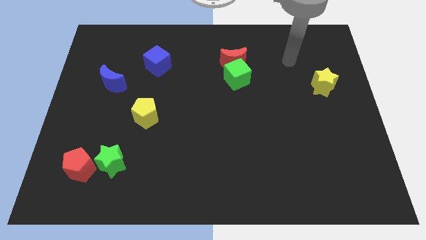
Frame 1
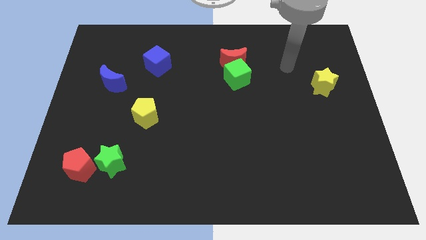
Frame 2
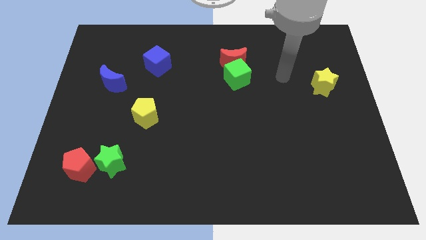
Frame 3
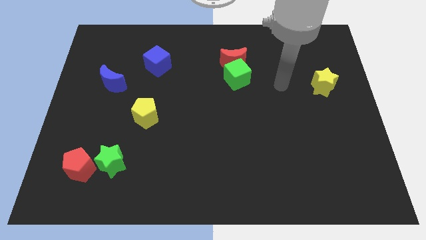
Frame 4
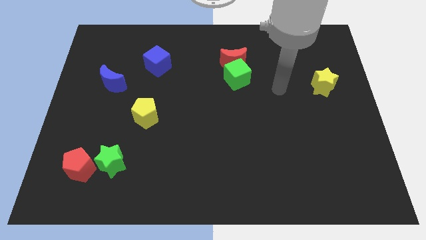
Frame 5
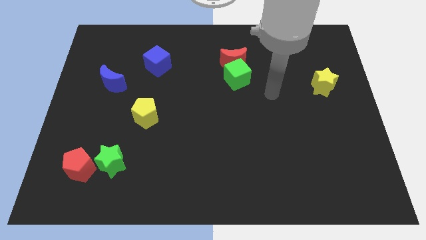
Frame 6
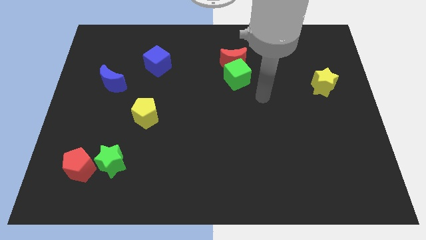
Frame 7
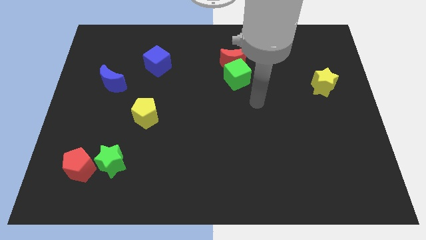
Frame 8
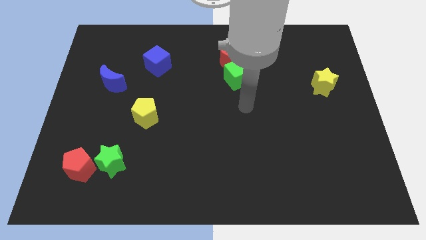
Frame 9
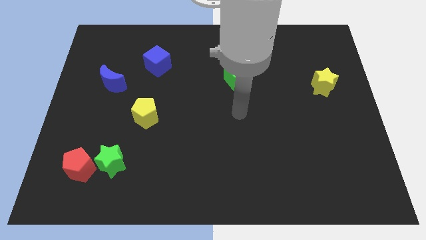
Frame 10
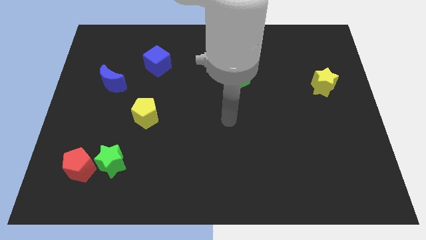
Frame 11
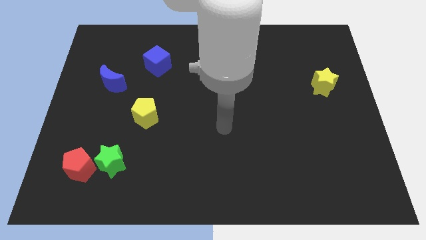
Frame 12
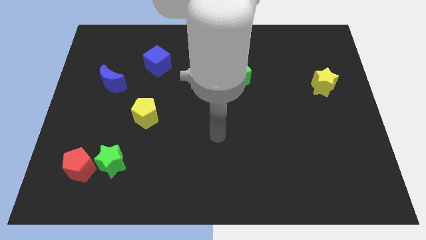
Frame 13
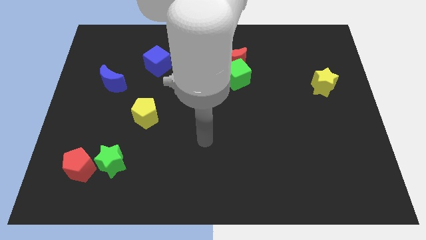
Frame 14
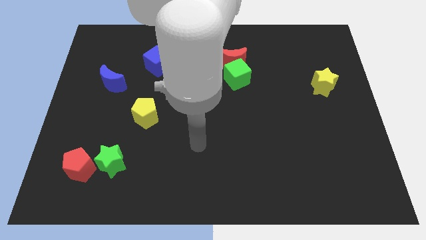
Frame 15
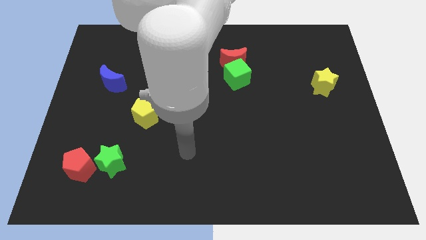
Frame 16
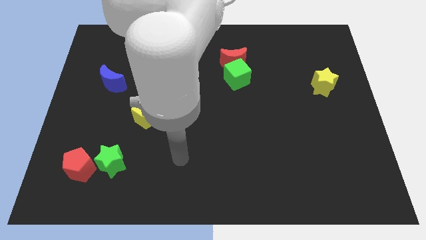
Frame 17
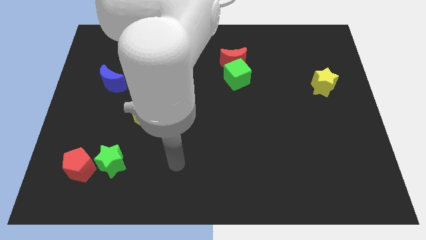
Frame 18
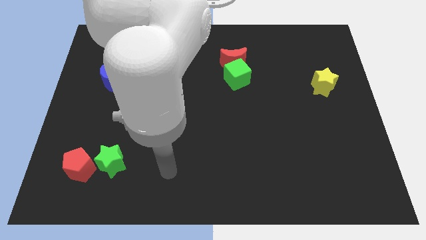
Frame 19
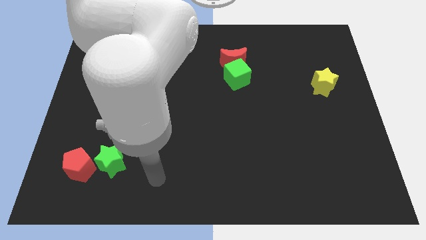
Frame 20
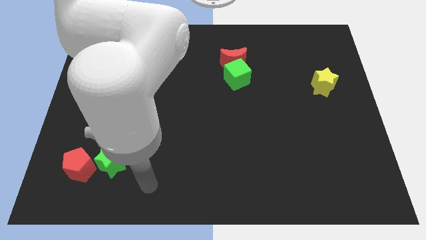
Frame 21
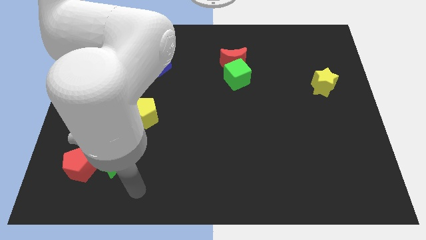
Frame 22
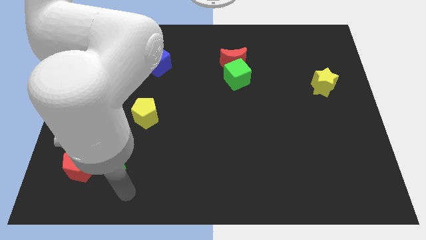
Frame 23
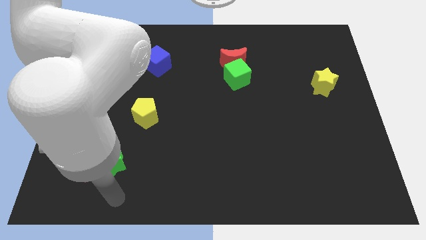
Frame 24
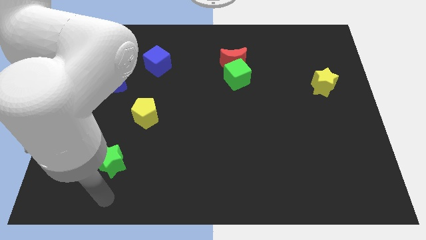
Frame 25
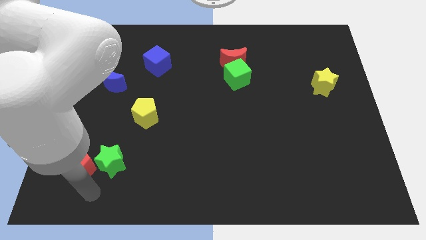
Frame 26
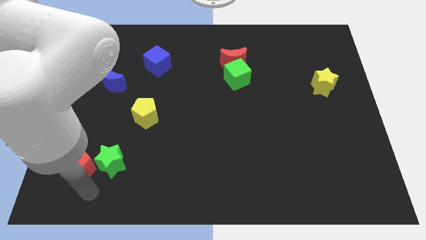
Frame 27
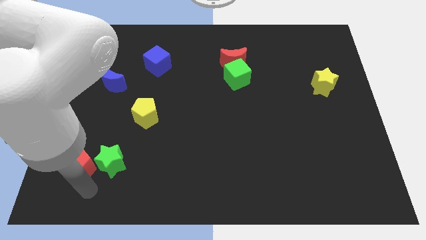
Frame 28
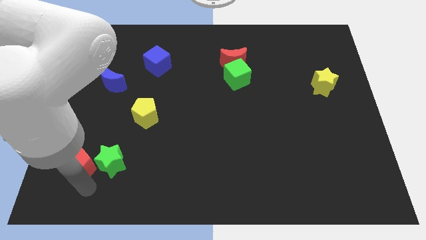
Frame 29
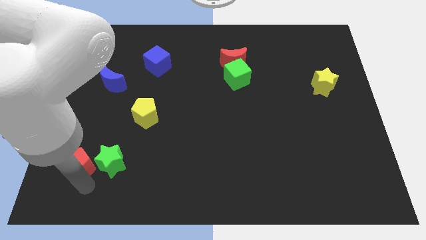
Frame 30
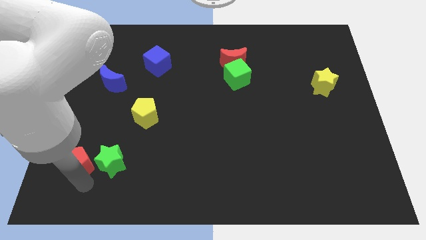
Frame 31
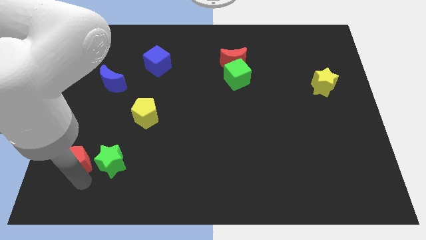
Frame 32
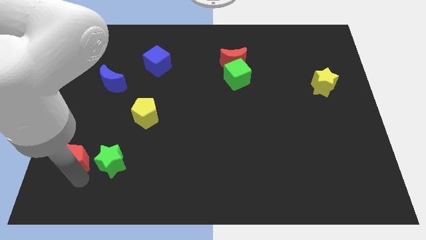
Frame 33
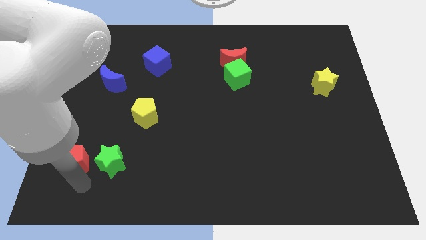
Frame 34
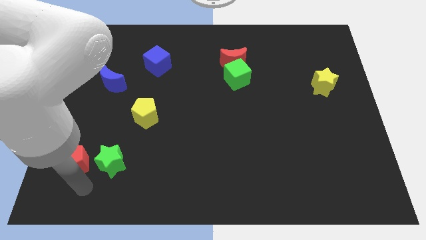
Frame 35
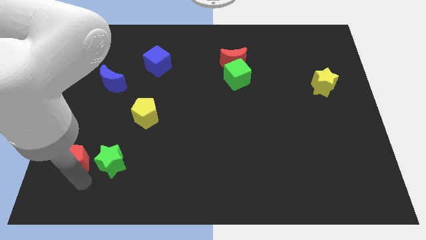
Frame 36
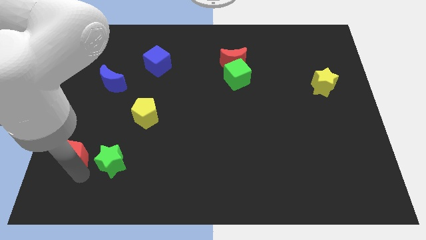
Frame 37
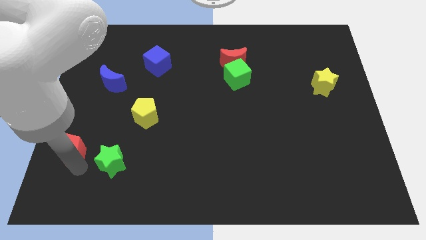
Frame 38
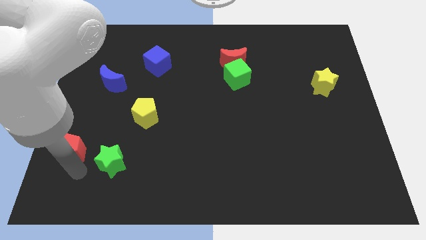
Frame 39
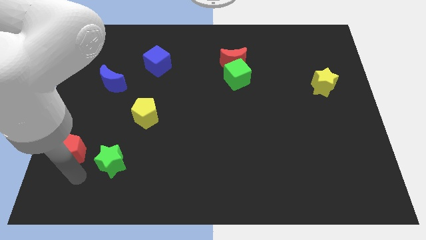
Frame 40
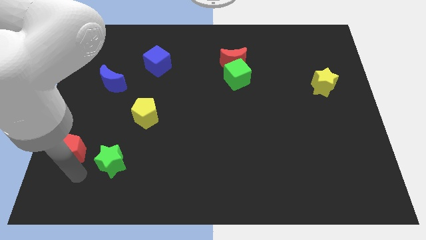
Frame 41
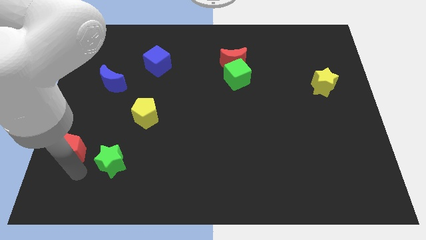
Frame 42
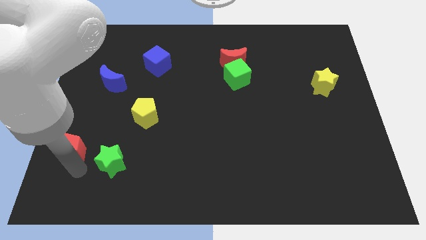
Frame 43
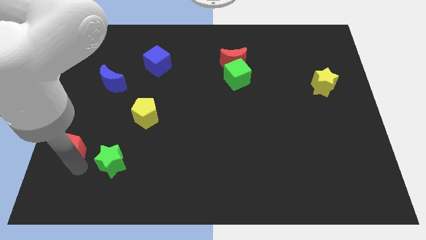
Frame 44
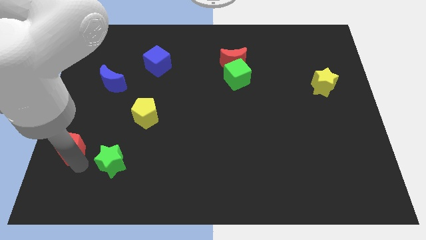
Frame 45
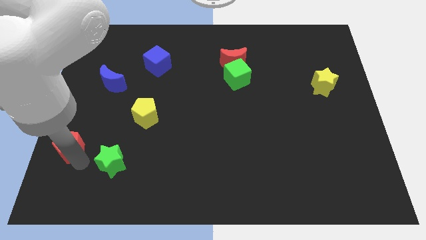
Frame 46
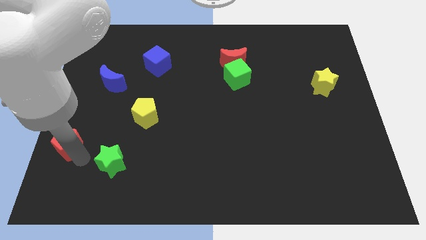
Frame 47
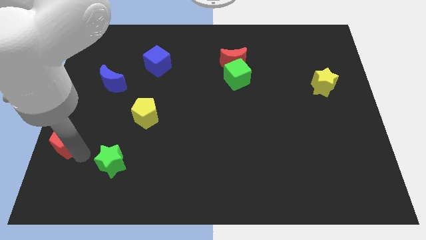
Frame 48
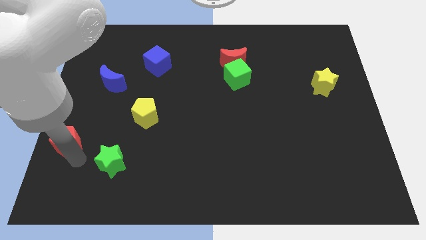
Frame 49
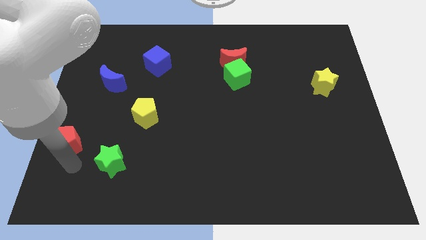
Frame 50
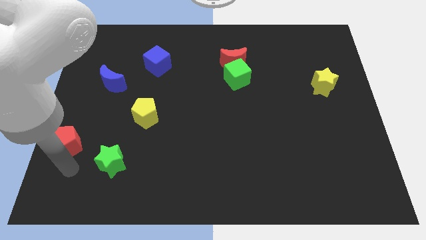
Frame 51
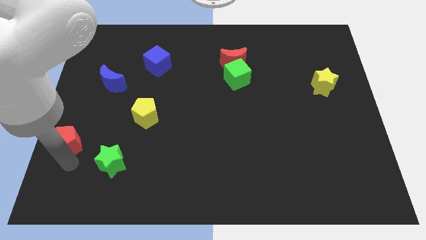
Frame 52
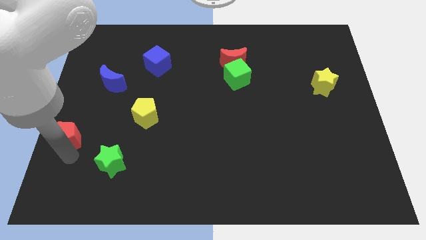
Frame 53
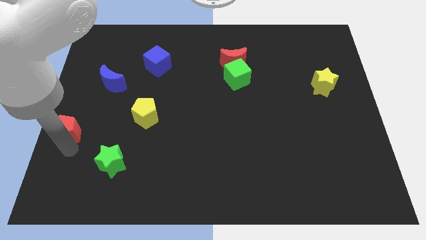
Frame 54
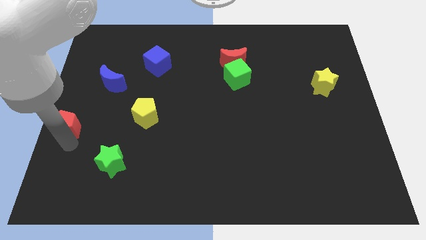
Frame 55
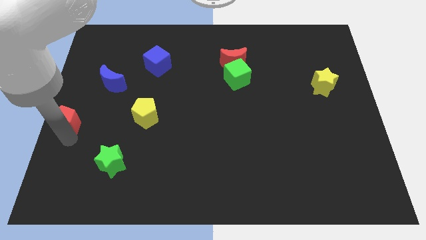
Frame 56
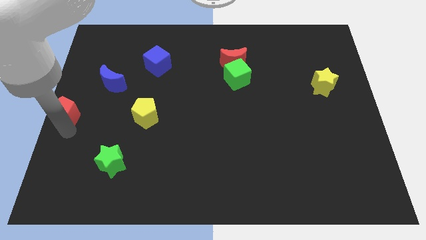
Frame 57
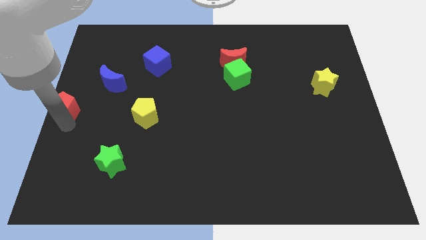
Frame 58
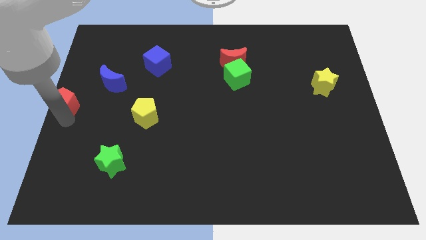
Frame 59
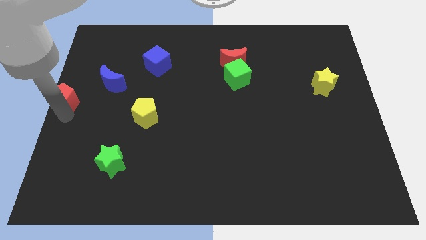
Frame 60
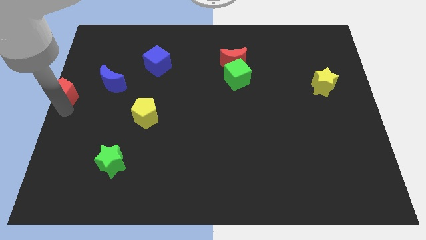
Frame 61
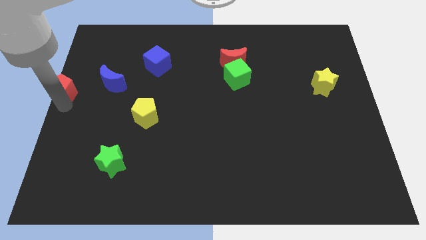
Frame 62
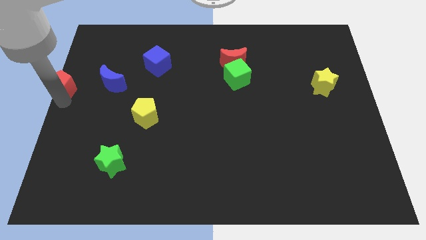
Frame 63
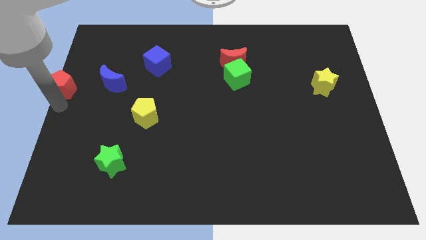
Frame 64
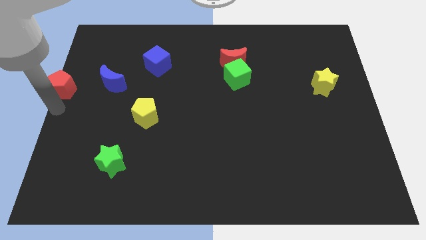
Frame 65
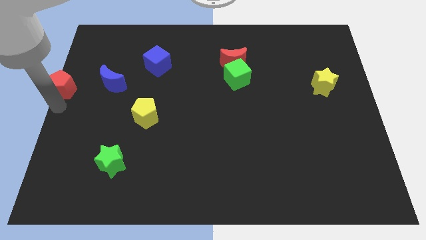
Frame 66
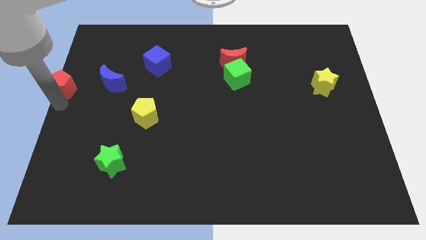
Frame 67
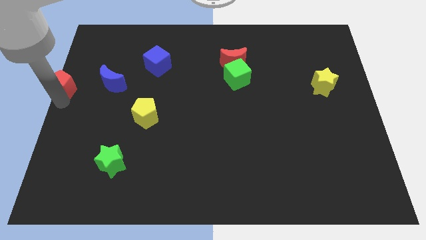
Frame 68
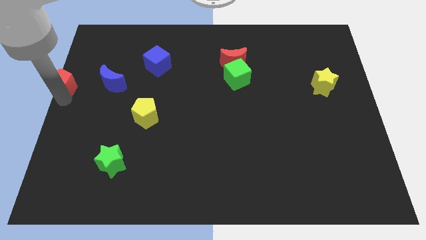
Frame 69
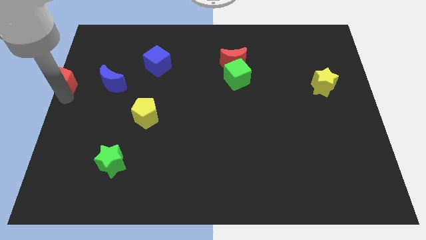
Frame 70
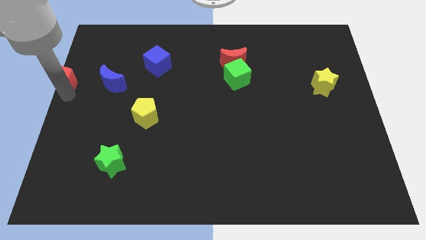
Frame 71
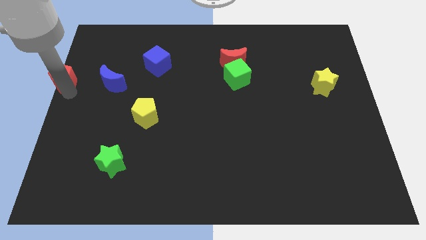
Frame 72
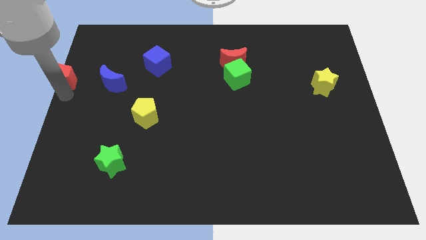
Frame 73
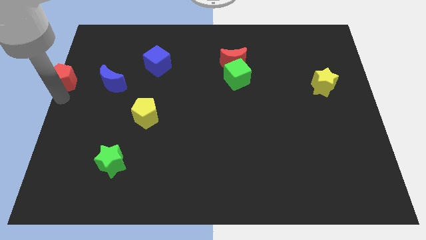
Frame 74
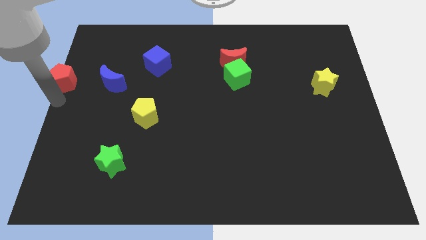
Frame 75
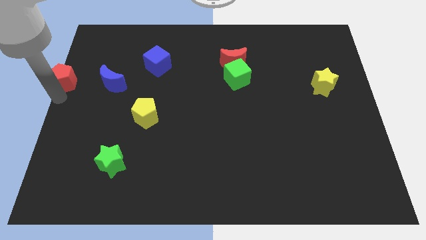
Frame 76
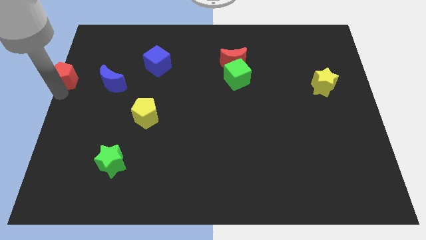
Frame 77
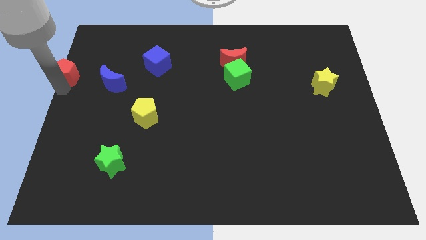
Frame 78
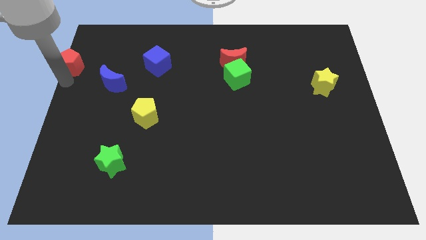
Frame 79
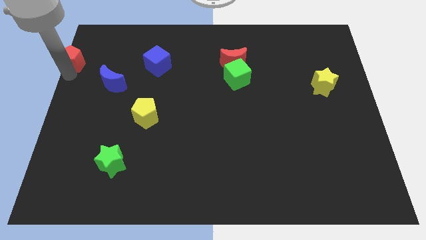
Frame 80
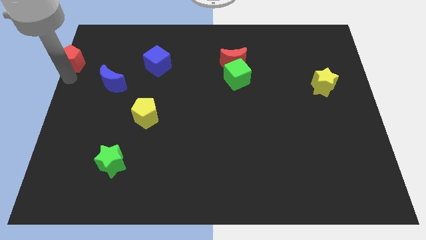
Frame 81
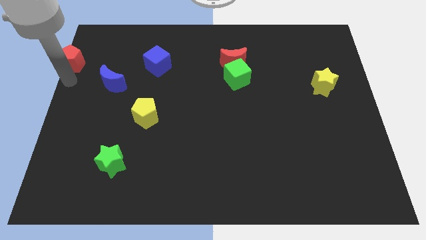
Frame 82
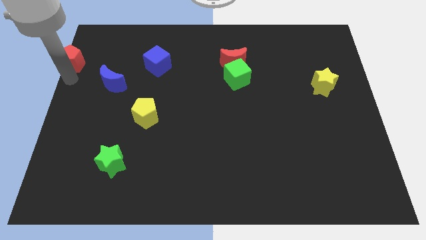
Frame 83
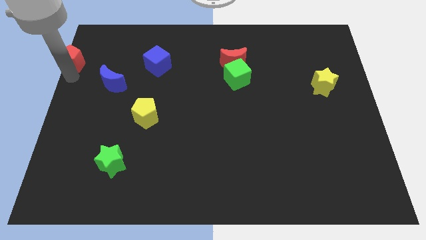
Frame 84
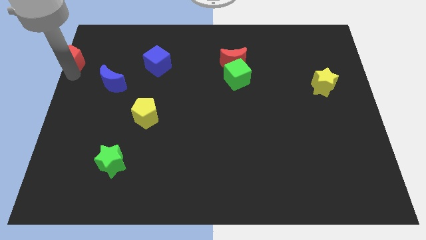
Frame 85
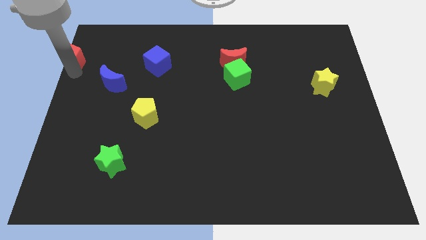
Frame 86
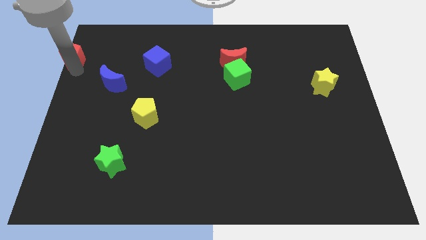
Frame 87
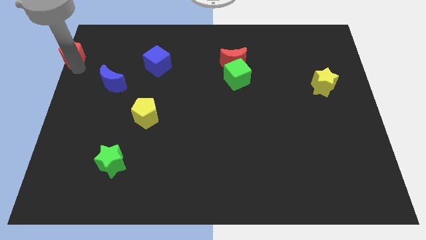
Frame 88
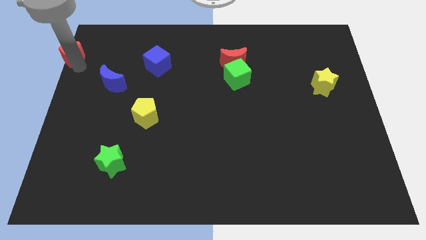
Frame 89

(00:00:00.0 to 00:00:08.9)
move the red pentagon to the upper left corner
